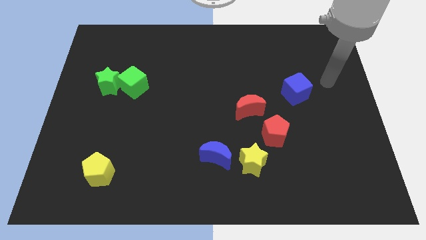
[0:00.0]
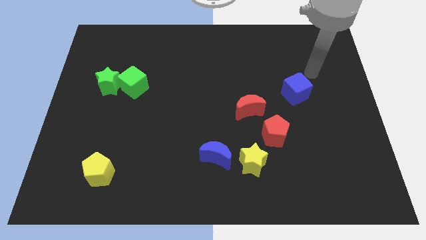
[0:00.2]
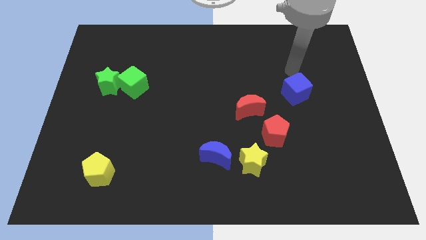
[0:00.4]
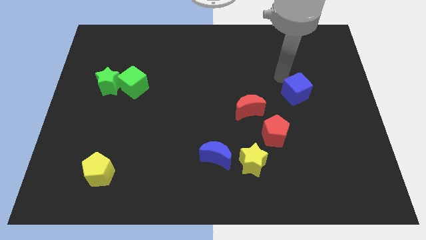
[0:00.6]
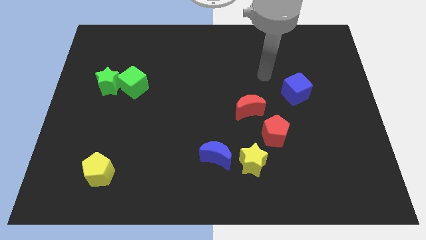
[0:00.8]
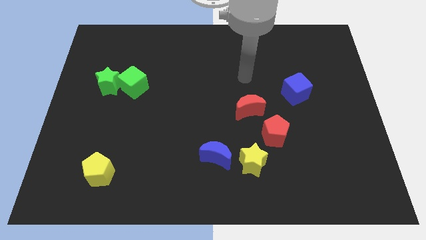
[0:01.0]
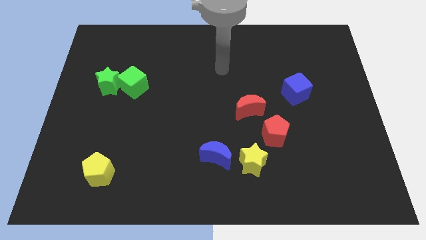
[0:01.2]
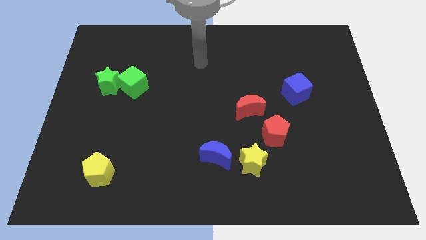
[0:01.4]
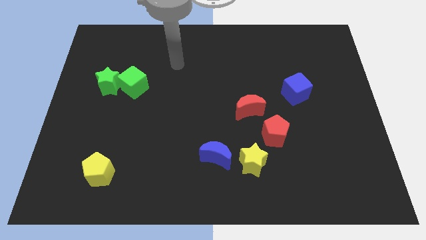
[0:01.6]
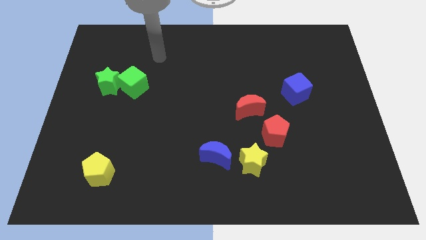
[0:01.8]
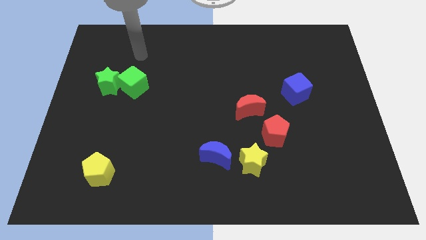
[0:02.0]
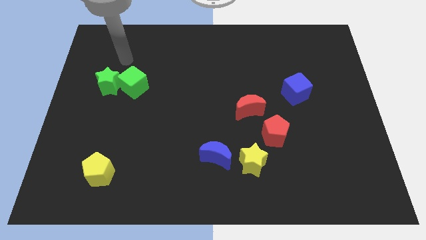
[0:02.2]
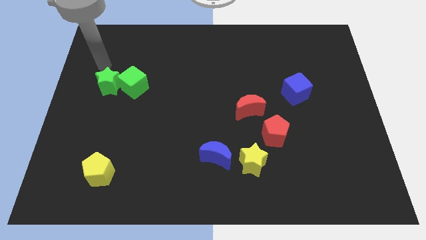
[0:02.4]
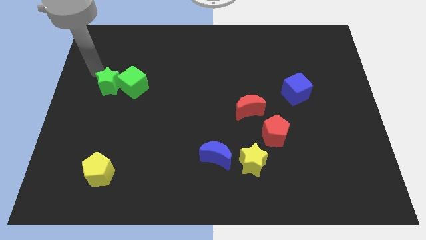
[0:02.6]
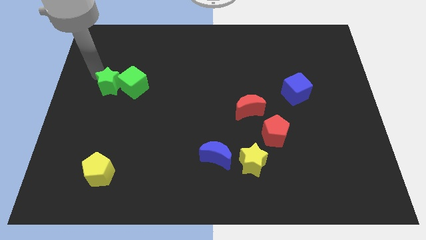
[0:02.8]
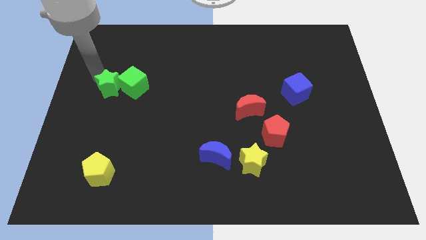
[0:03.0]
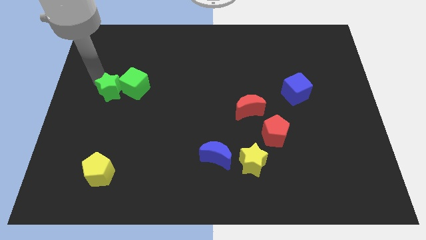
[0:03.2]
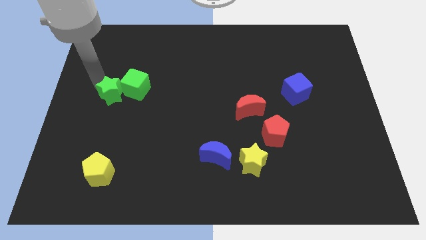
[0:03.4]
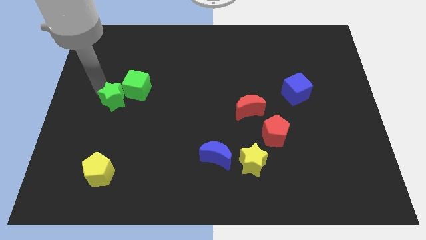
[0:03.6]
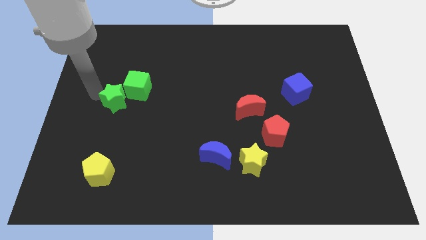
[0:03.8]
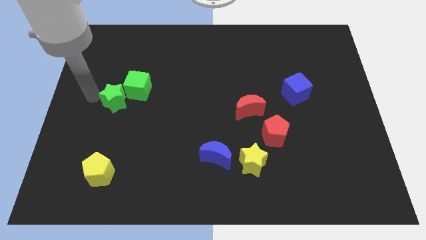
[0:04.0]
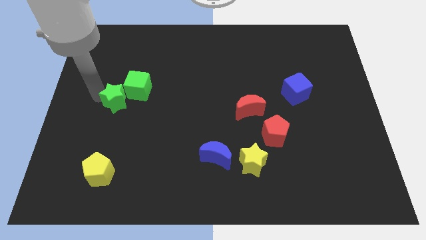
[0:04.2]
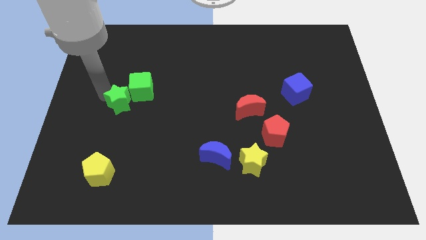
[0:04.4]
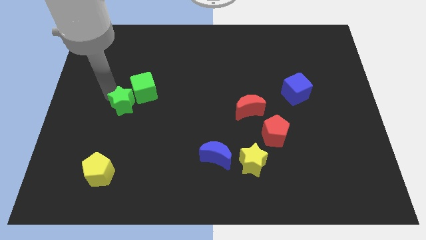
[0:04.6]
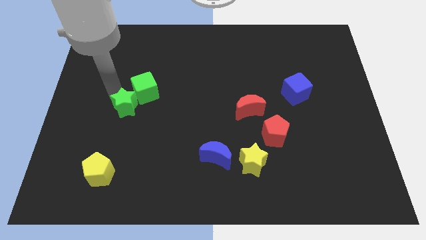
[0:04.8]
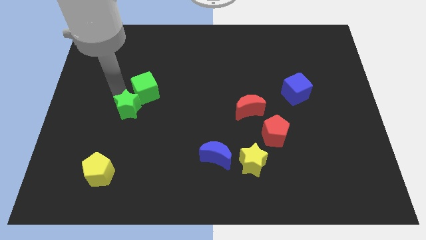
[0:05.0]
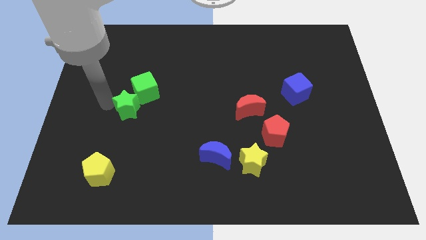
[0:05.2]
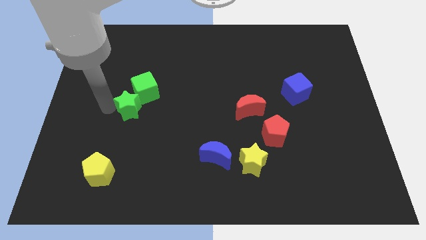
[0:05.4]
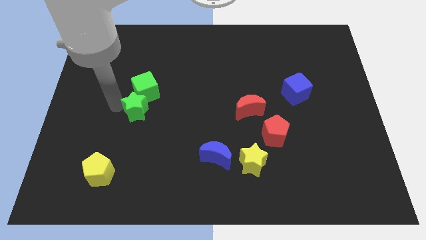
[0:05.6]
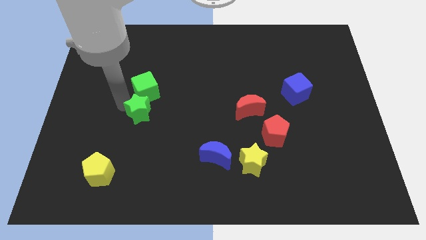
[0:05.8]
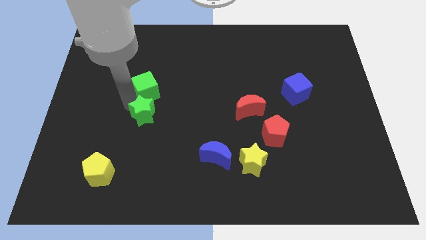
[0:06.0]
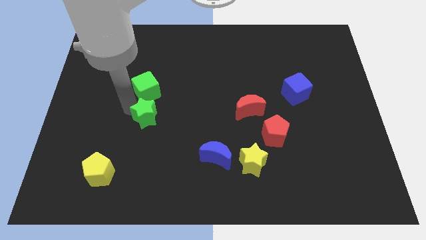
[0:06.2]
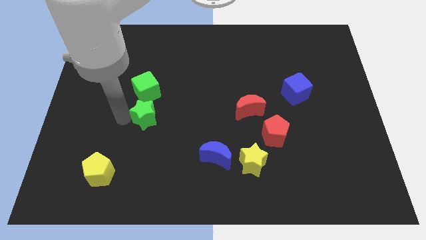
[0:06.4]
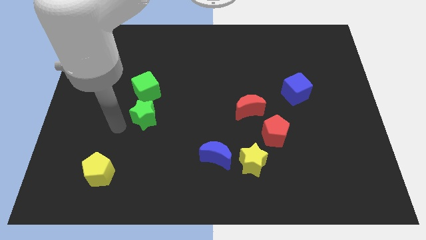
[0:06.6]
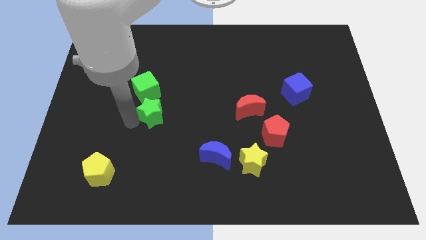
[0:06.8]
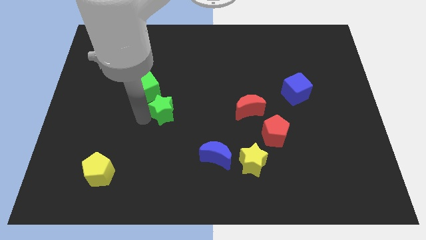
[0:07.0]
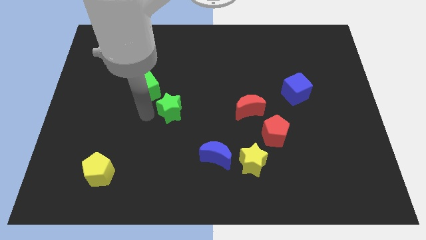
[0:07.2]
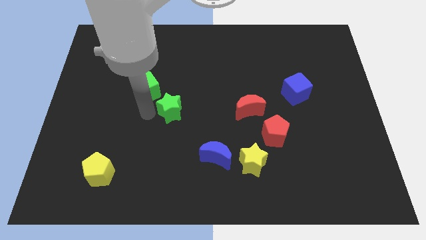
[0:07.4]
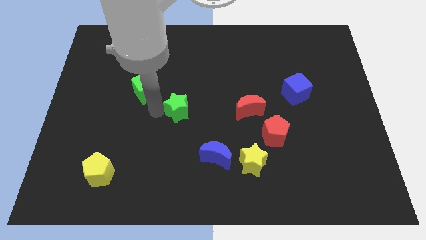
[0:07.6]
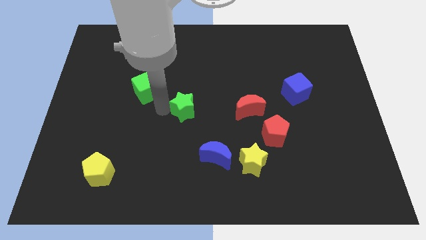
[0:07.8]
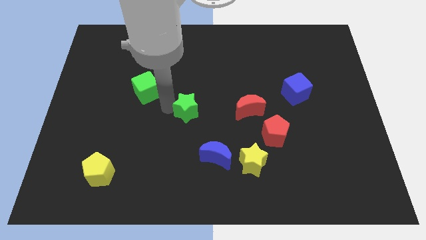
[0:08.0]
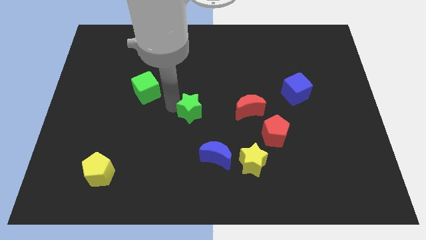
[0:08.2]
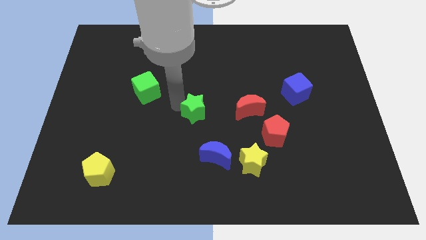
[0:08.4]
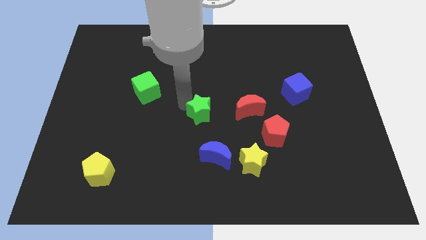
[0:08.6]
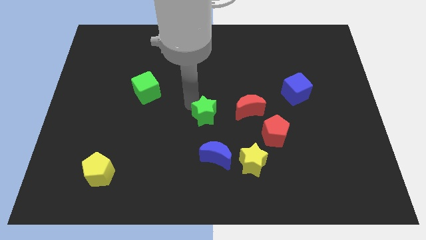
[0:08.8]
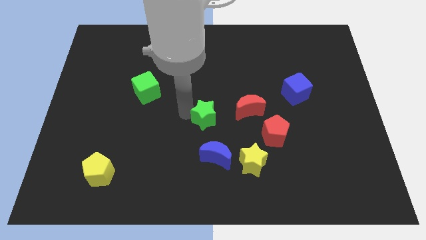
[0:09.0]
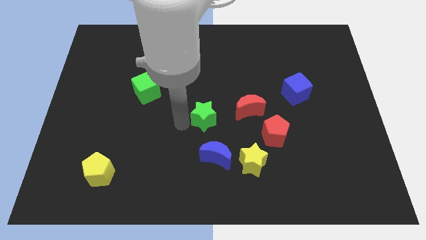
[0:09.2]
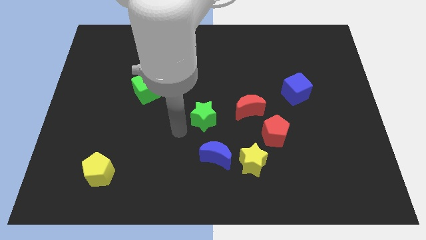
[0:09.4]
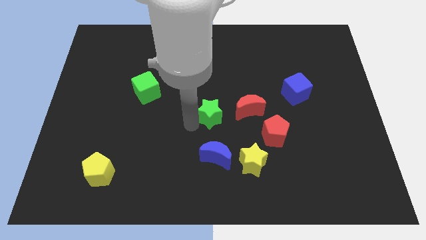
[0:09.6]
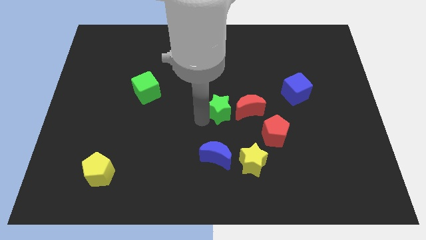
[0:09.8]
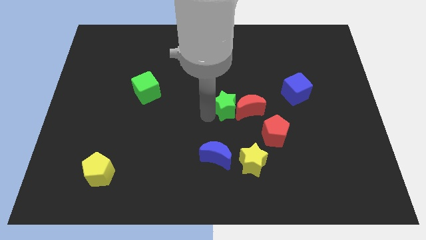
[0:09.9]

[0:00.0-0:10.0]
put the green star towards the red moon

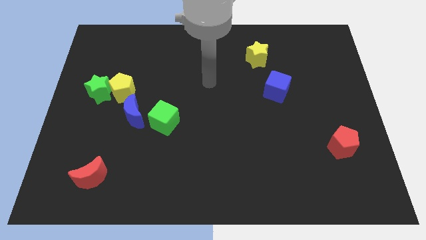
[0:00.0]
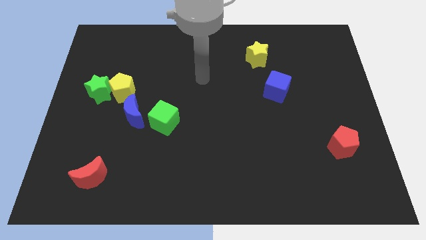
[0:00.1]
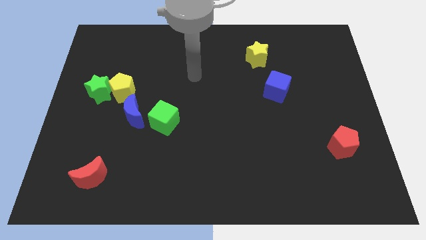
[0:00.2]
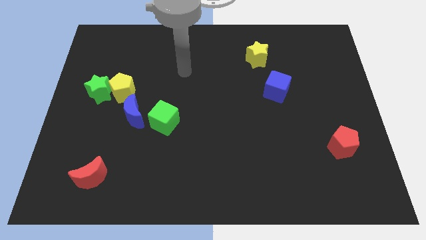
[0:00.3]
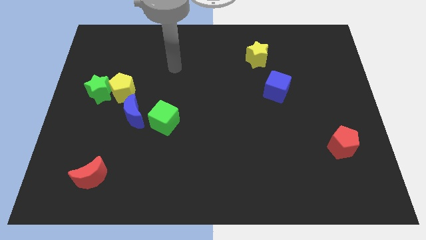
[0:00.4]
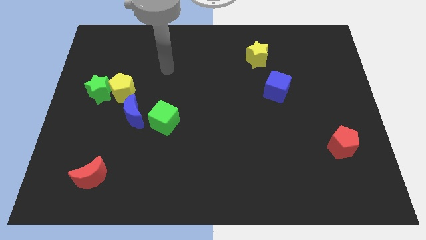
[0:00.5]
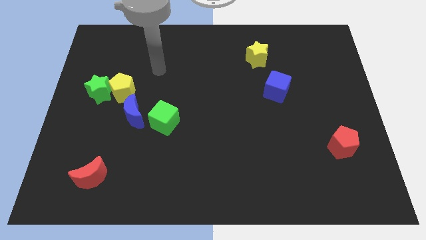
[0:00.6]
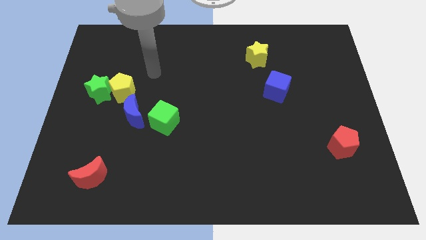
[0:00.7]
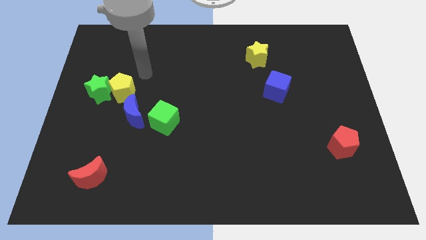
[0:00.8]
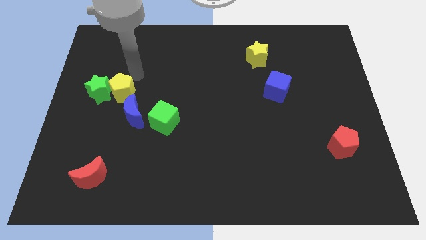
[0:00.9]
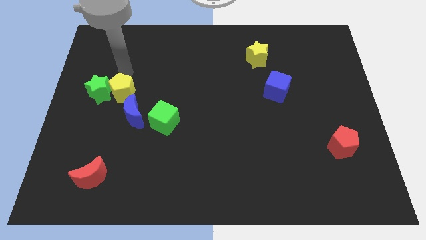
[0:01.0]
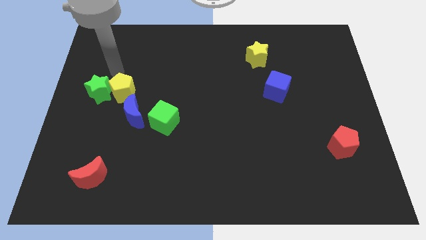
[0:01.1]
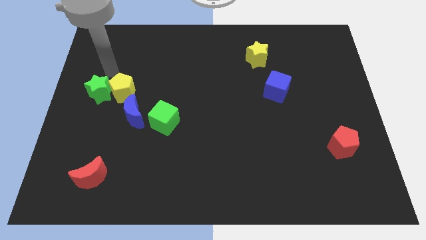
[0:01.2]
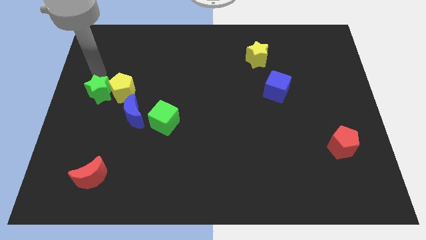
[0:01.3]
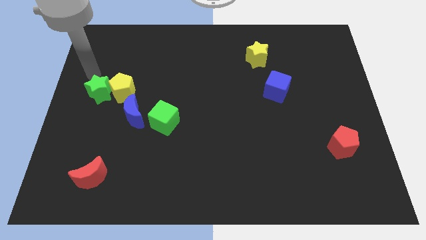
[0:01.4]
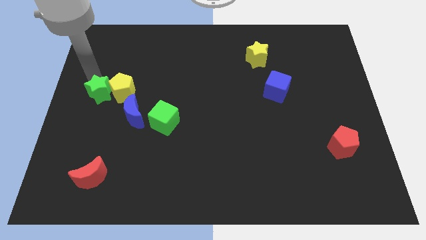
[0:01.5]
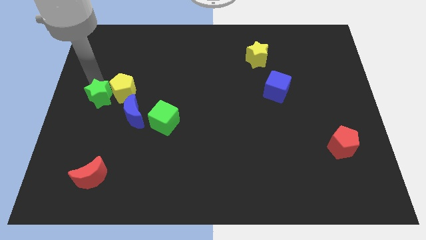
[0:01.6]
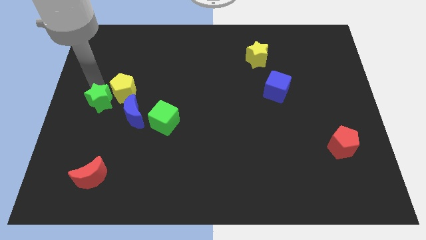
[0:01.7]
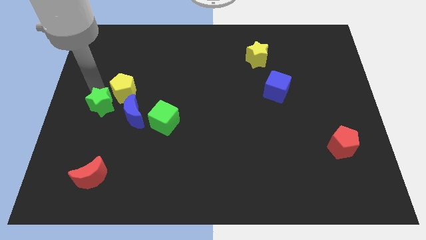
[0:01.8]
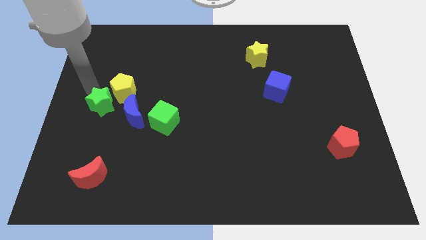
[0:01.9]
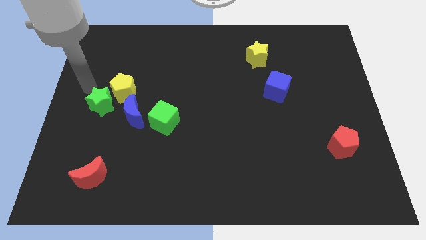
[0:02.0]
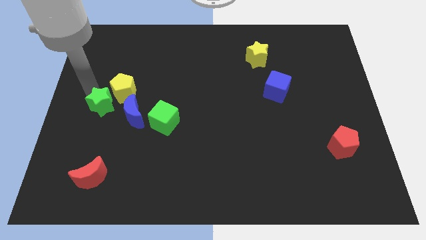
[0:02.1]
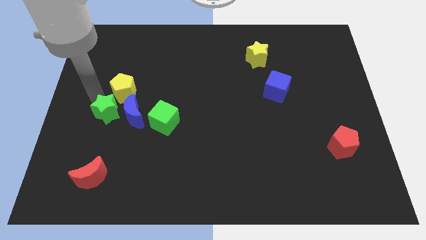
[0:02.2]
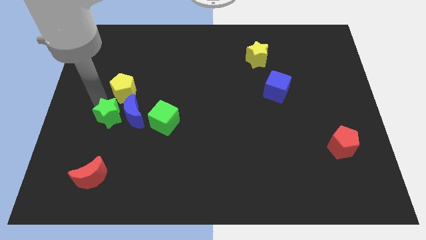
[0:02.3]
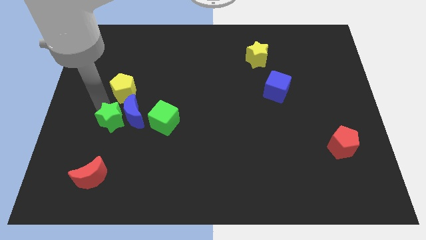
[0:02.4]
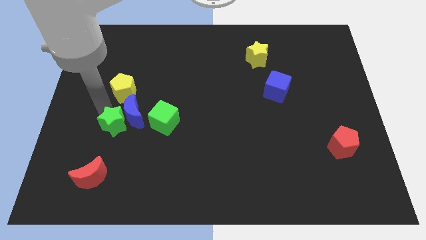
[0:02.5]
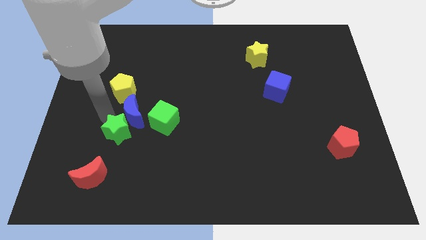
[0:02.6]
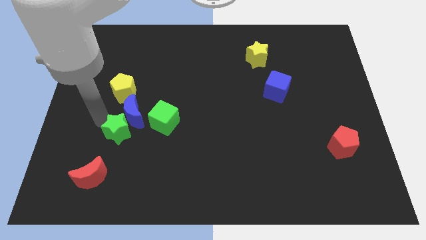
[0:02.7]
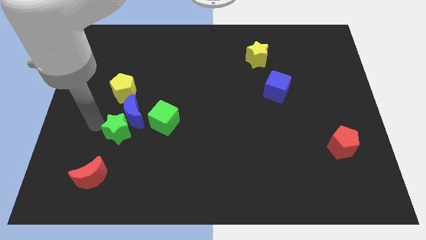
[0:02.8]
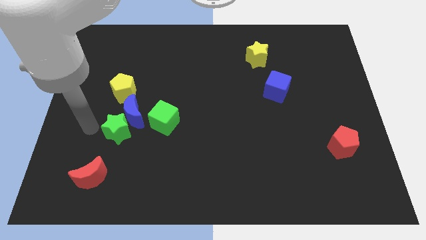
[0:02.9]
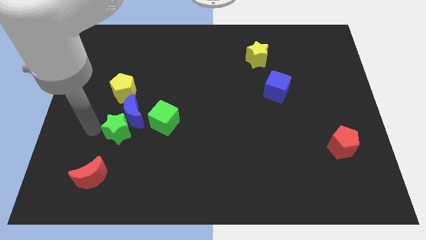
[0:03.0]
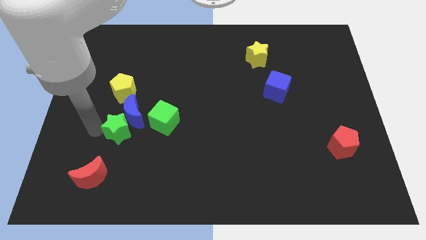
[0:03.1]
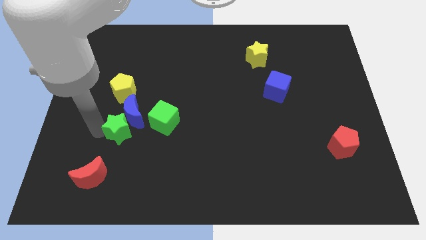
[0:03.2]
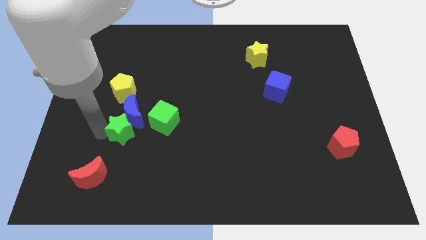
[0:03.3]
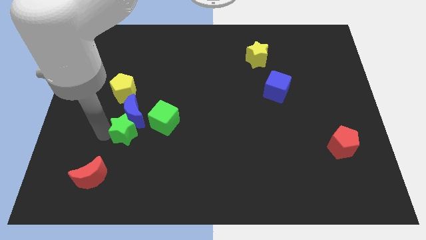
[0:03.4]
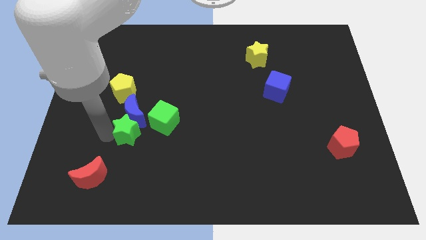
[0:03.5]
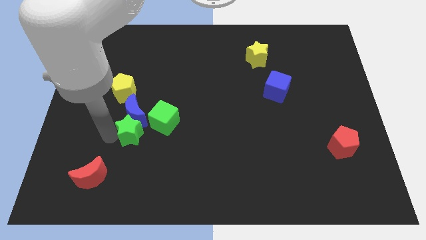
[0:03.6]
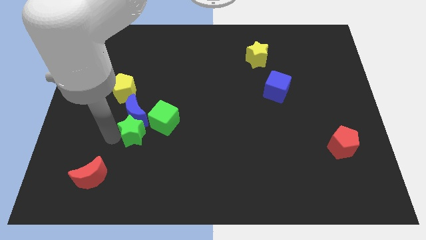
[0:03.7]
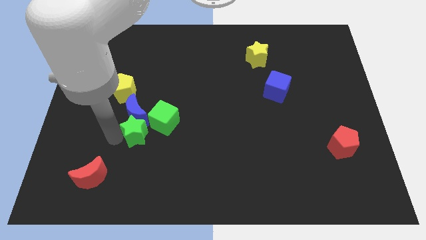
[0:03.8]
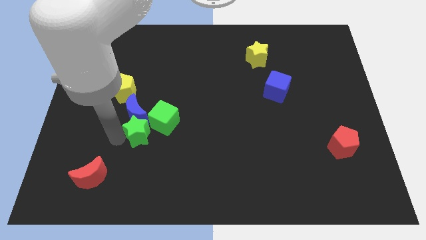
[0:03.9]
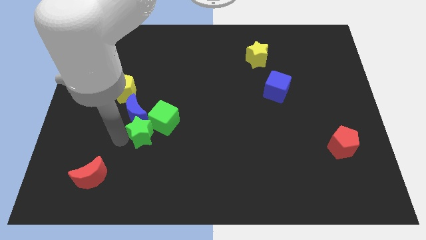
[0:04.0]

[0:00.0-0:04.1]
push the green star to the green cube
